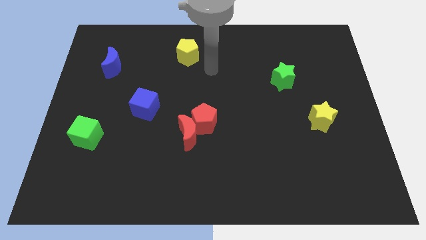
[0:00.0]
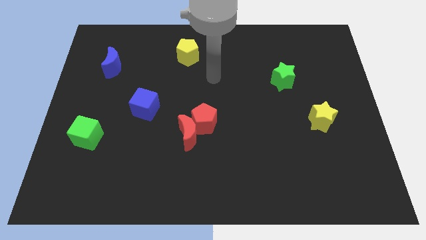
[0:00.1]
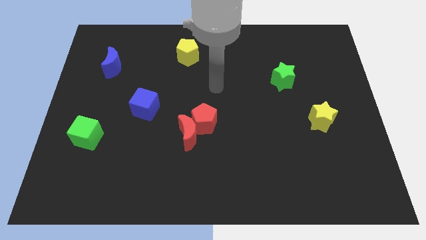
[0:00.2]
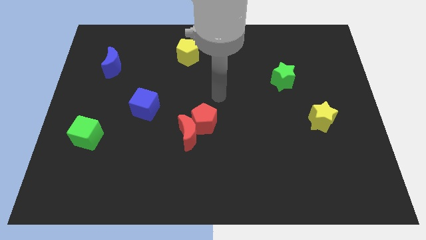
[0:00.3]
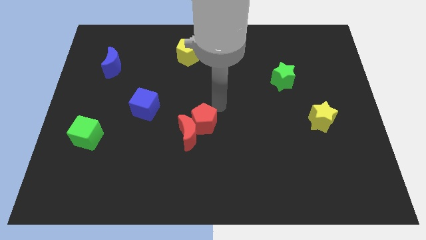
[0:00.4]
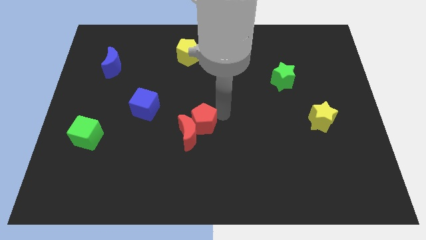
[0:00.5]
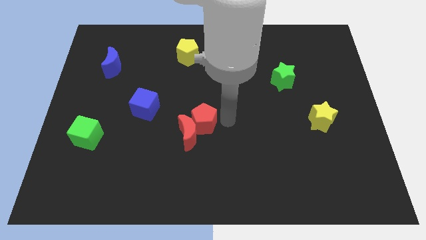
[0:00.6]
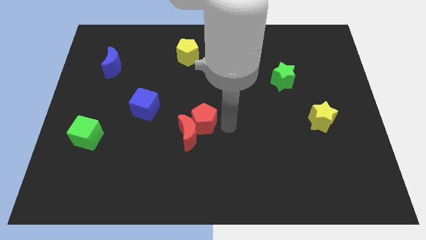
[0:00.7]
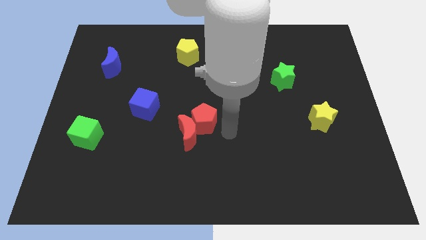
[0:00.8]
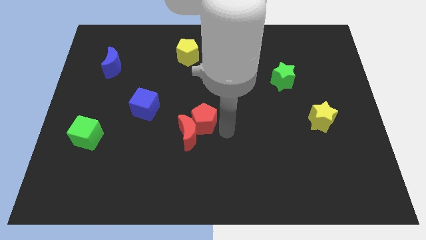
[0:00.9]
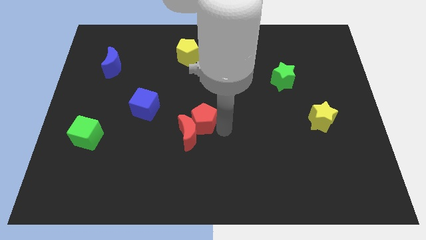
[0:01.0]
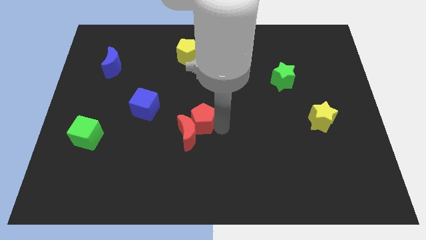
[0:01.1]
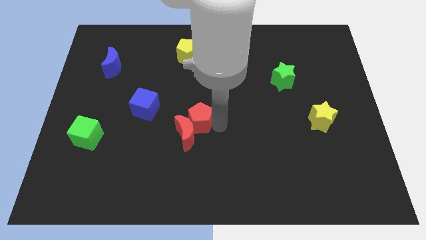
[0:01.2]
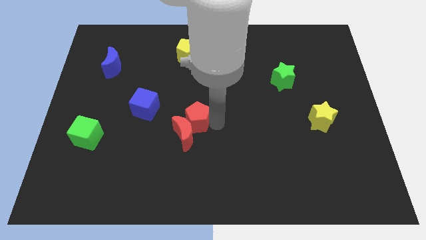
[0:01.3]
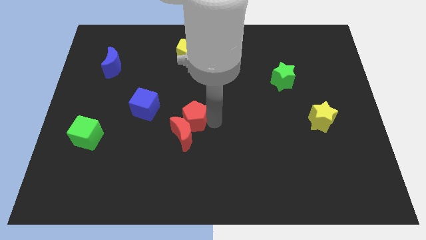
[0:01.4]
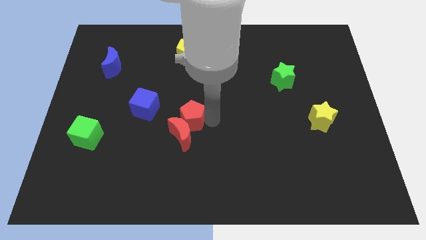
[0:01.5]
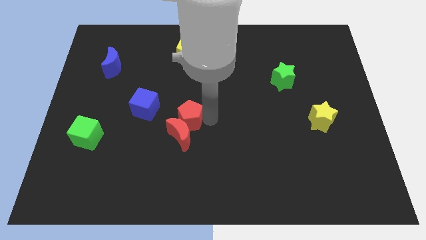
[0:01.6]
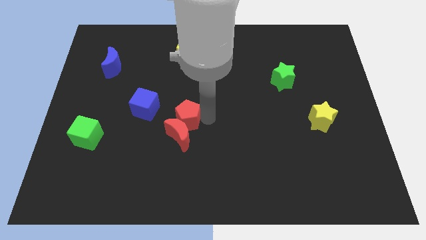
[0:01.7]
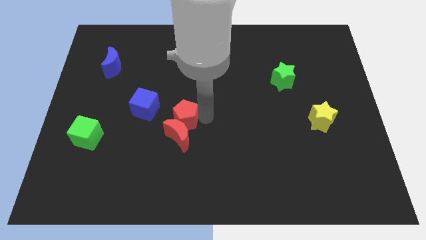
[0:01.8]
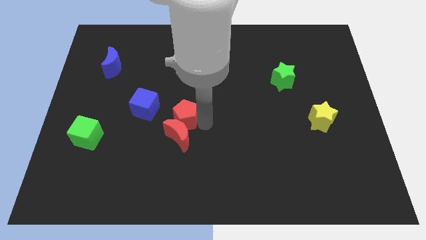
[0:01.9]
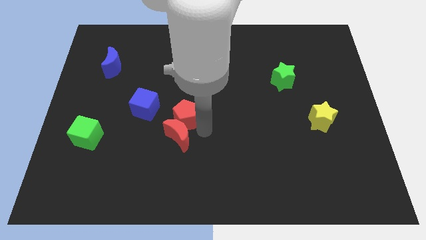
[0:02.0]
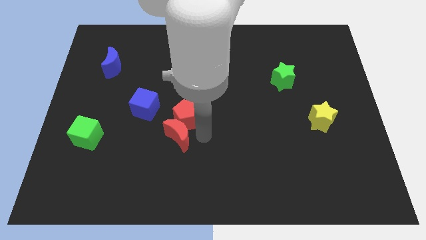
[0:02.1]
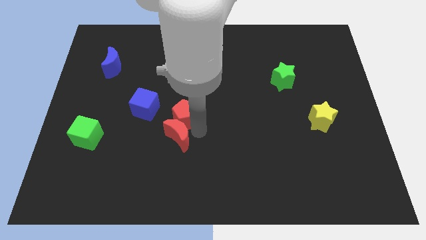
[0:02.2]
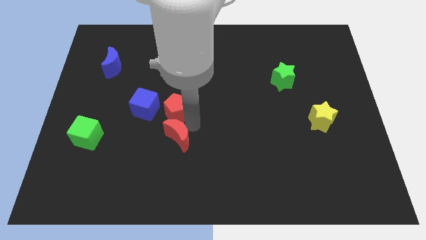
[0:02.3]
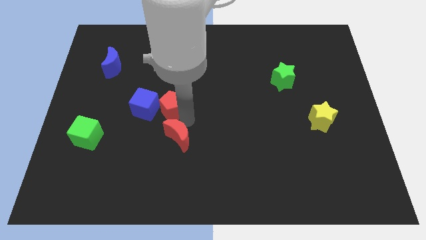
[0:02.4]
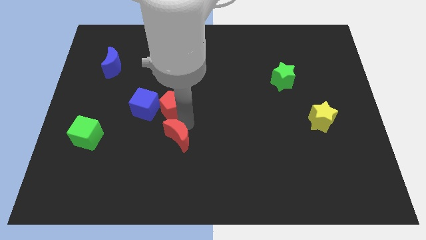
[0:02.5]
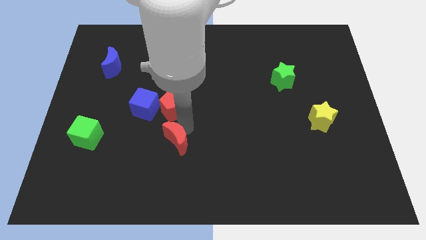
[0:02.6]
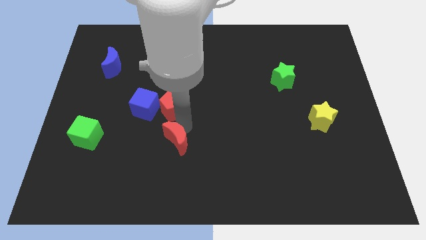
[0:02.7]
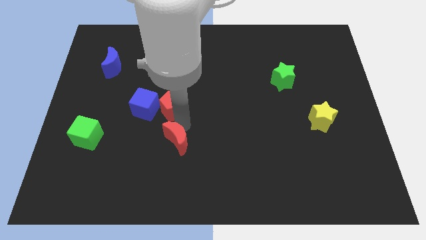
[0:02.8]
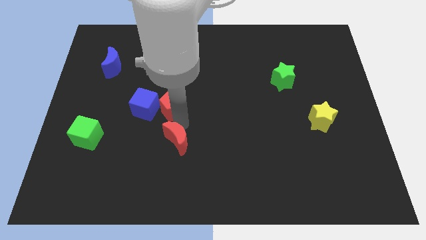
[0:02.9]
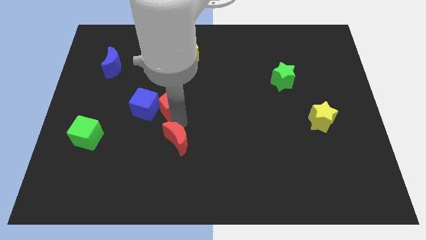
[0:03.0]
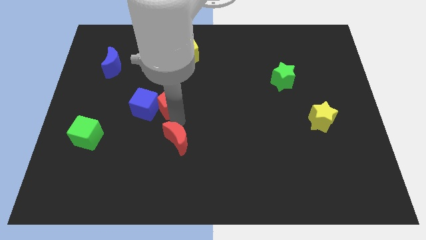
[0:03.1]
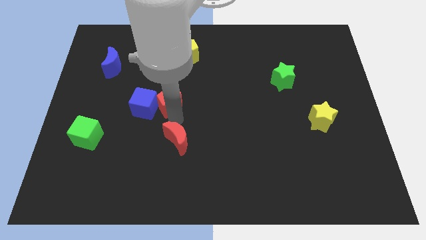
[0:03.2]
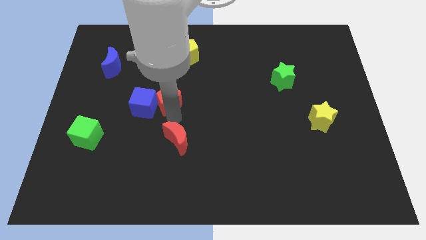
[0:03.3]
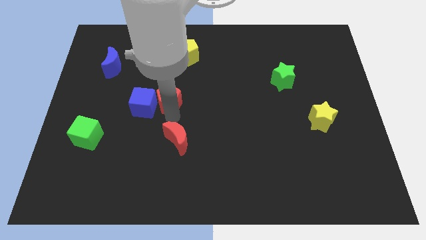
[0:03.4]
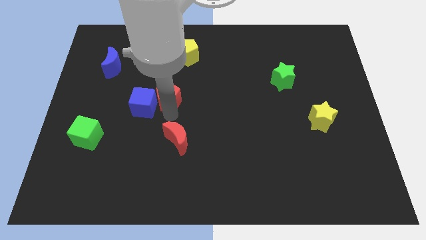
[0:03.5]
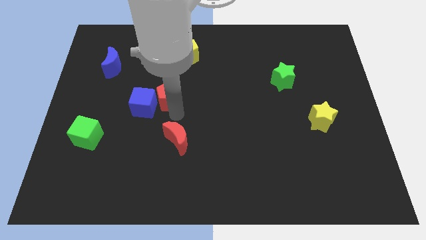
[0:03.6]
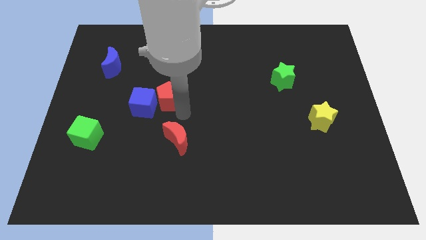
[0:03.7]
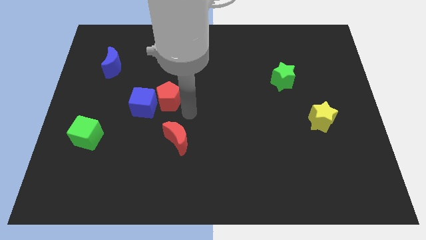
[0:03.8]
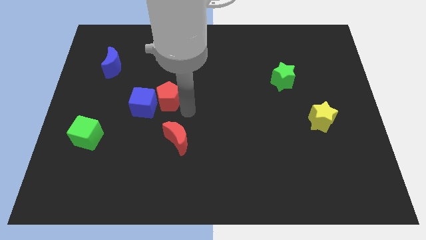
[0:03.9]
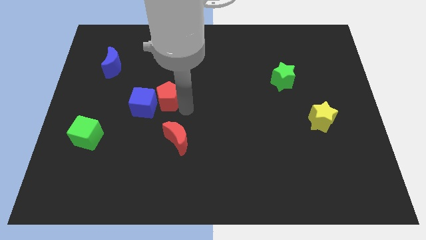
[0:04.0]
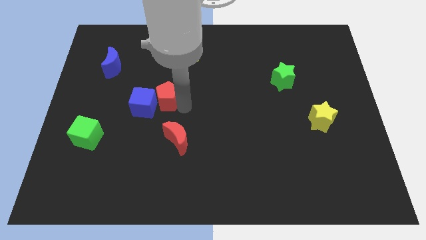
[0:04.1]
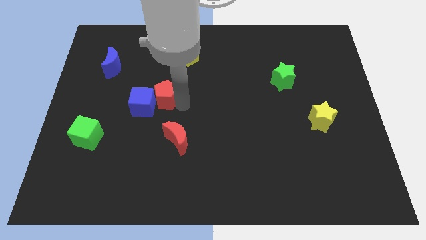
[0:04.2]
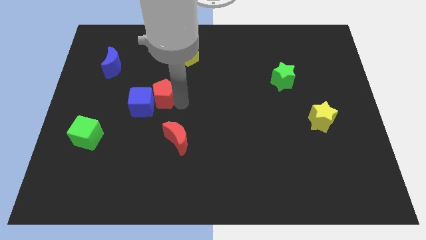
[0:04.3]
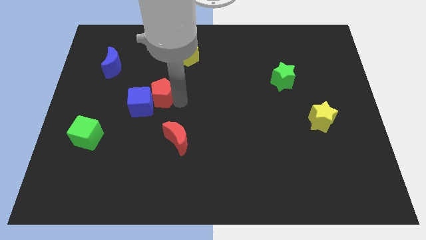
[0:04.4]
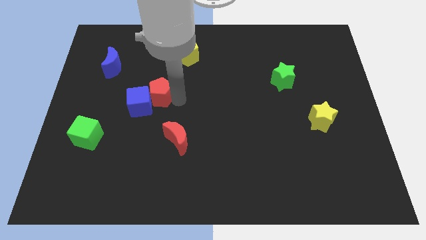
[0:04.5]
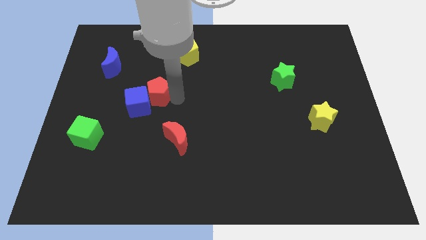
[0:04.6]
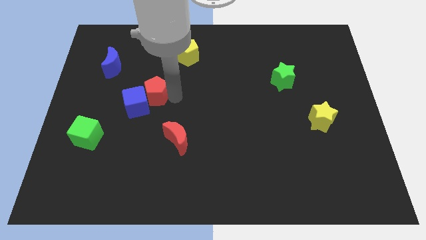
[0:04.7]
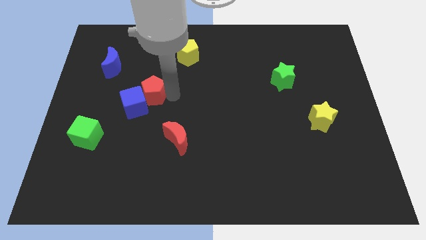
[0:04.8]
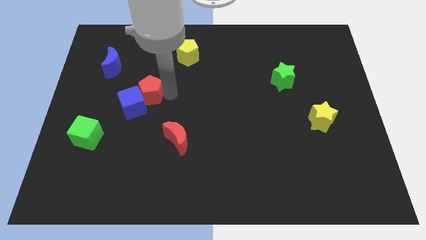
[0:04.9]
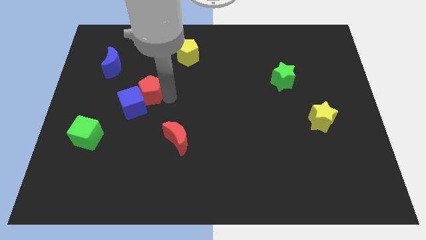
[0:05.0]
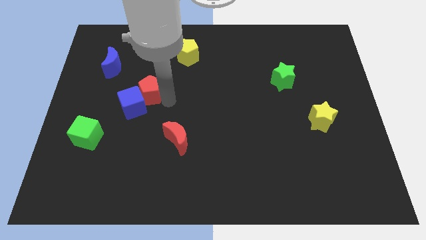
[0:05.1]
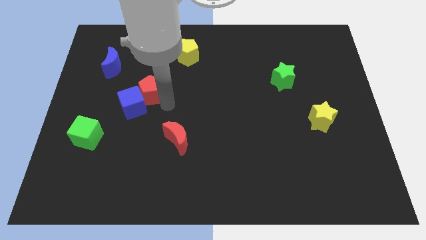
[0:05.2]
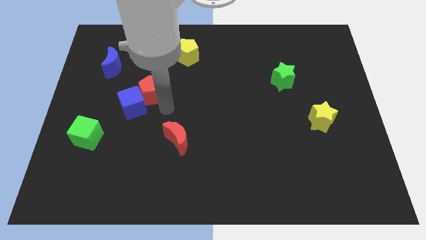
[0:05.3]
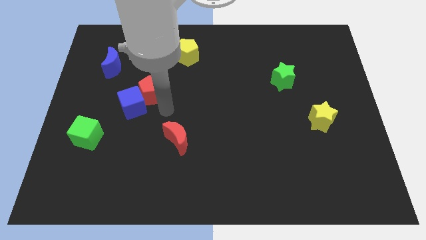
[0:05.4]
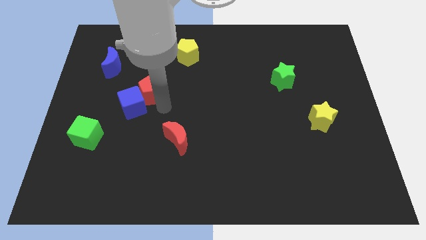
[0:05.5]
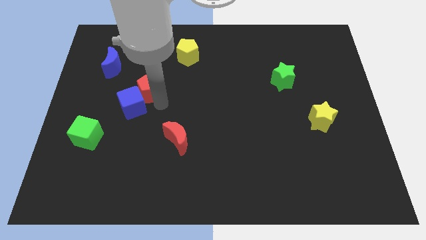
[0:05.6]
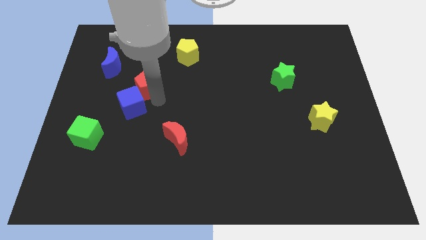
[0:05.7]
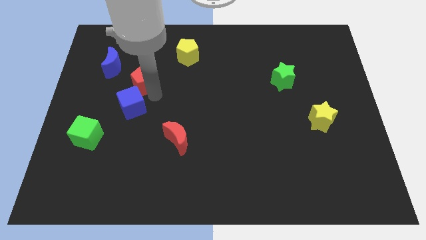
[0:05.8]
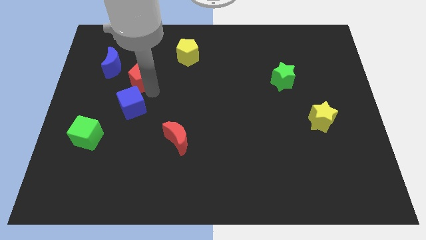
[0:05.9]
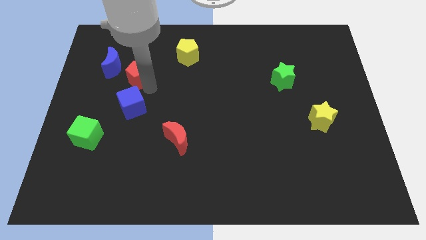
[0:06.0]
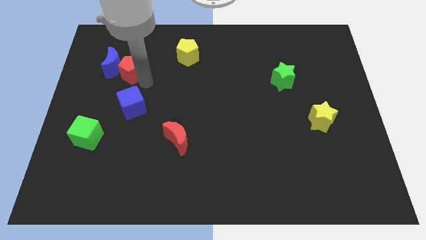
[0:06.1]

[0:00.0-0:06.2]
move the red pentagon to the blue moon

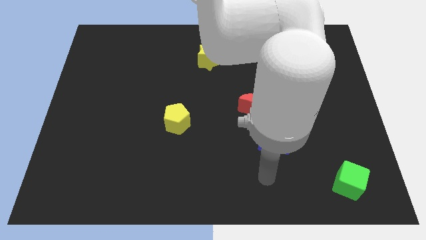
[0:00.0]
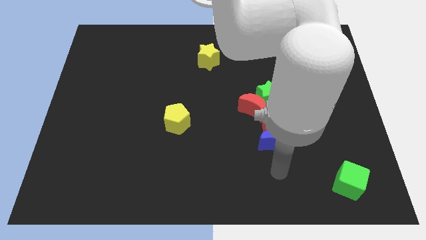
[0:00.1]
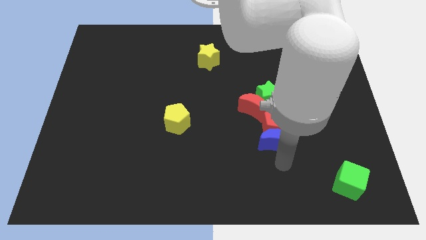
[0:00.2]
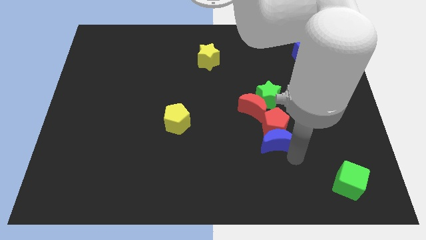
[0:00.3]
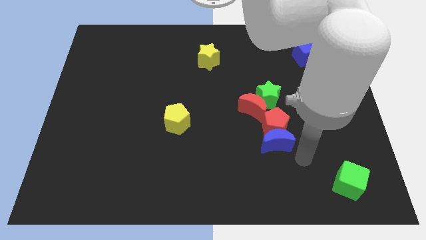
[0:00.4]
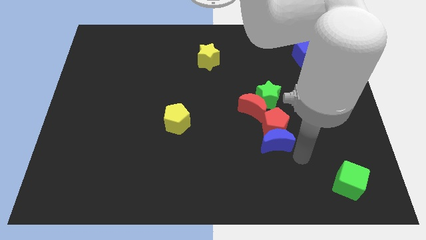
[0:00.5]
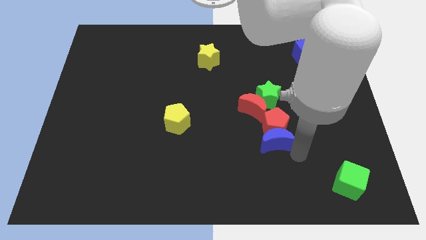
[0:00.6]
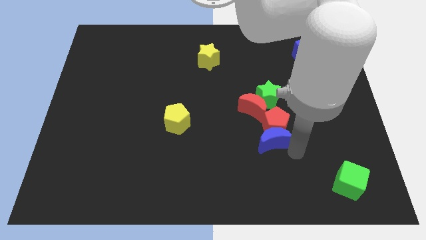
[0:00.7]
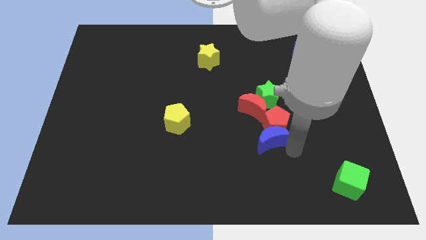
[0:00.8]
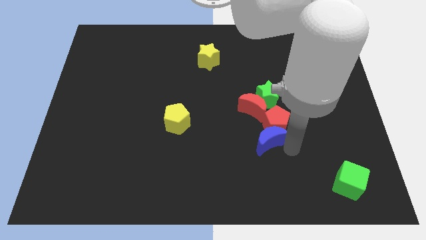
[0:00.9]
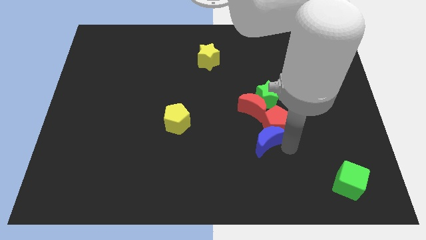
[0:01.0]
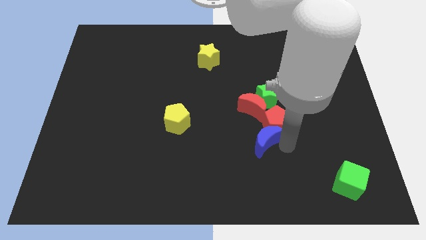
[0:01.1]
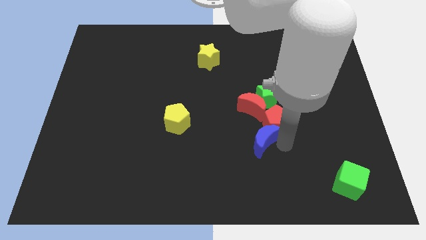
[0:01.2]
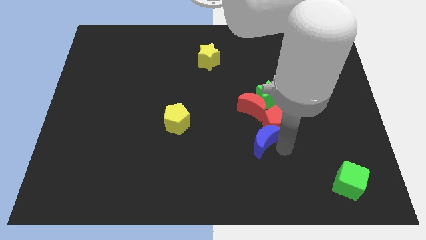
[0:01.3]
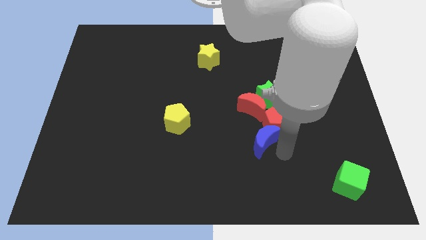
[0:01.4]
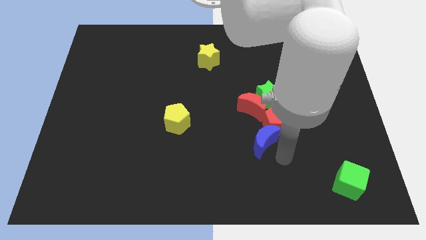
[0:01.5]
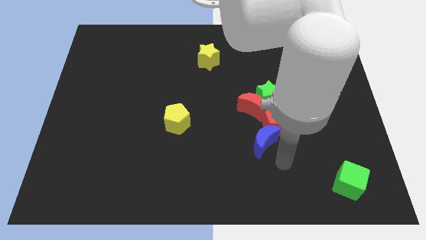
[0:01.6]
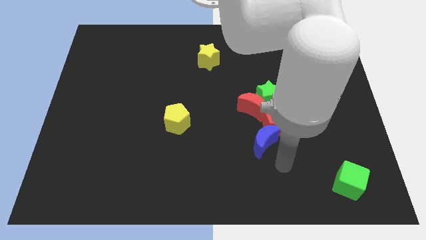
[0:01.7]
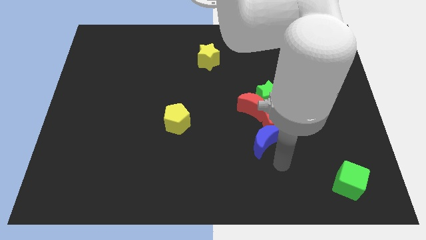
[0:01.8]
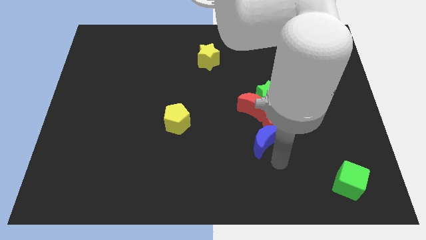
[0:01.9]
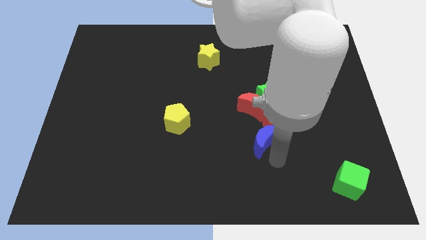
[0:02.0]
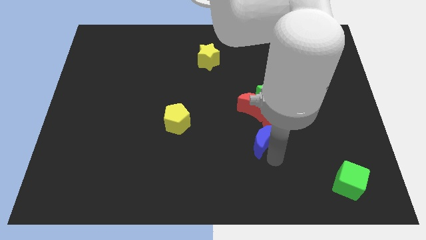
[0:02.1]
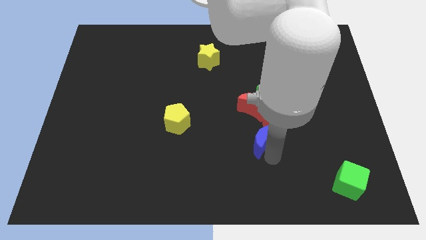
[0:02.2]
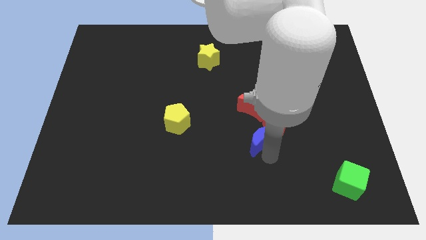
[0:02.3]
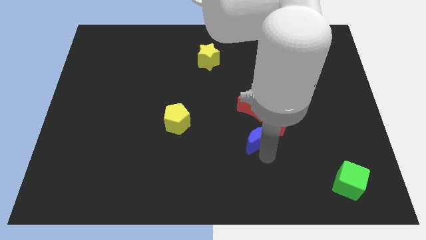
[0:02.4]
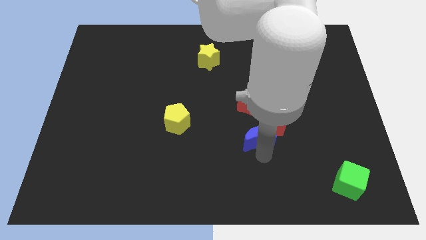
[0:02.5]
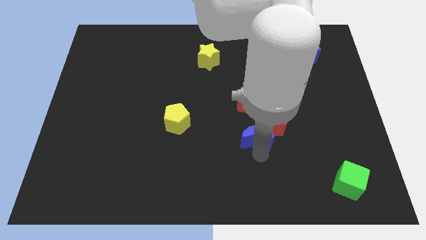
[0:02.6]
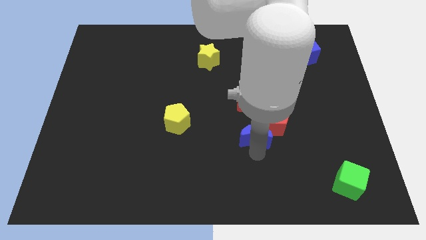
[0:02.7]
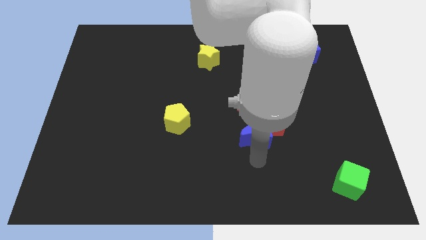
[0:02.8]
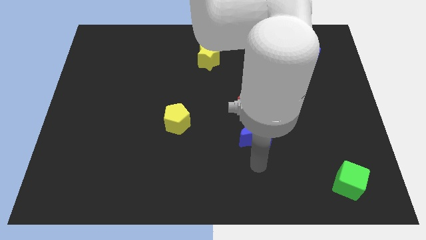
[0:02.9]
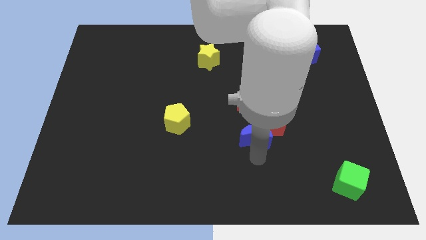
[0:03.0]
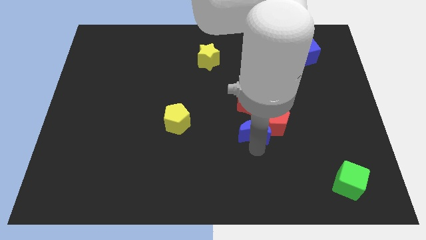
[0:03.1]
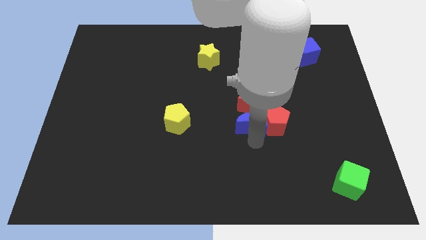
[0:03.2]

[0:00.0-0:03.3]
move the blue moon next to the red moon
